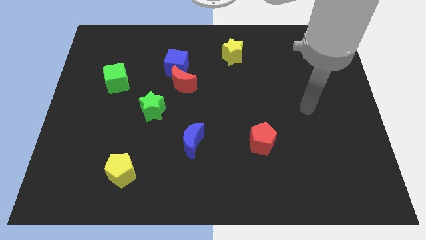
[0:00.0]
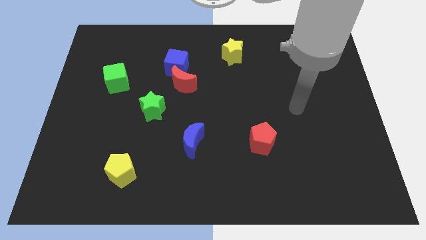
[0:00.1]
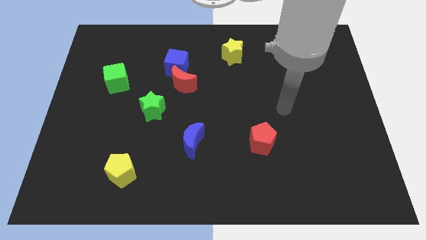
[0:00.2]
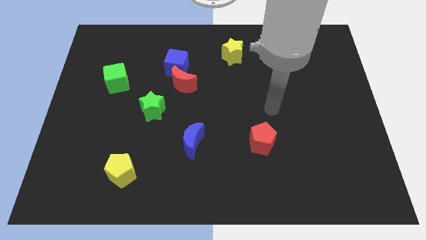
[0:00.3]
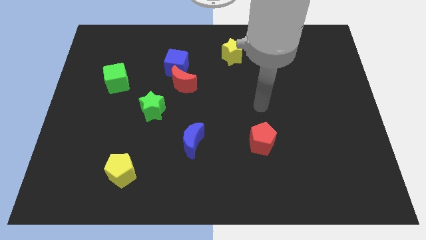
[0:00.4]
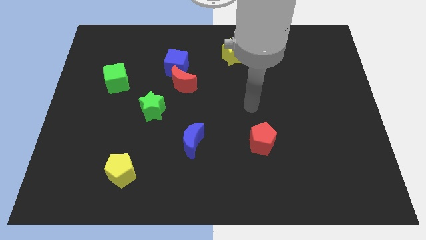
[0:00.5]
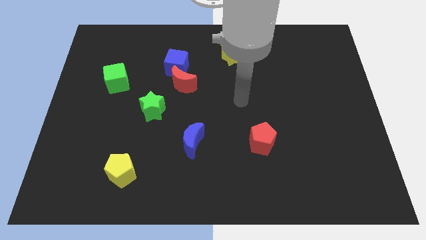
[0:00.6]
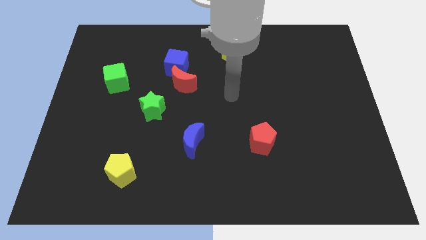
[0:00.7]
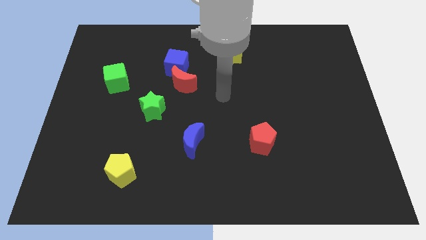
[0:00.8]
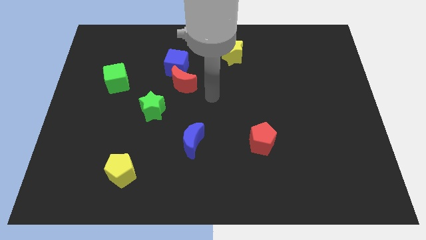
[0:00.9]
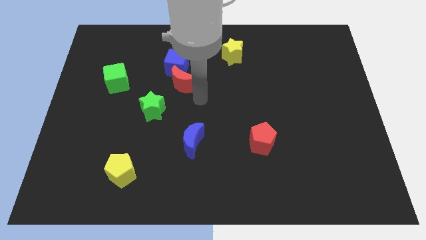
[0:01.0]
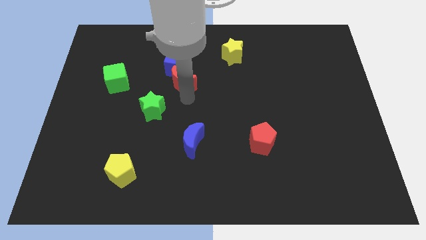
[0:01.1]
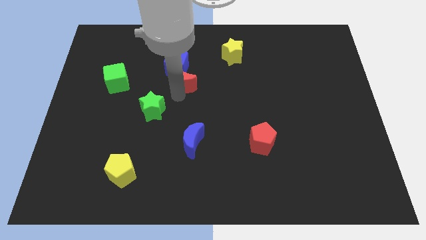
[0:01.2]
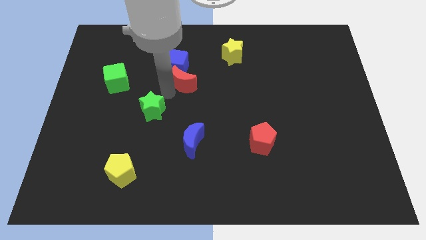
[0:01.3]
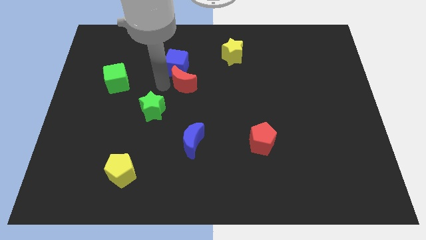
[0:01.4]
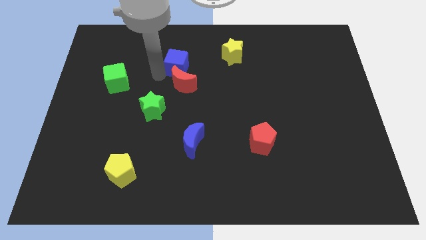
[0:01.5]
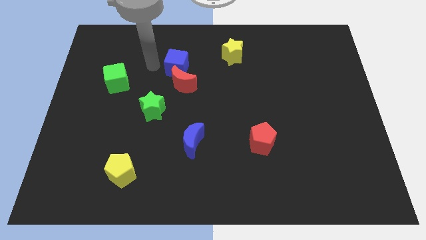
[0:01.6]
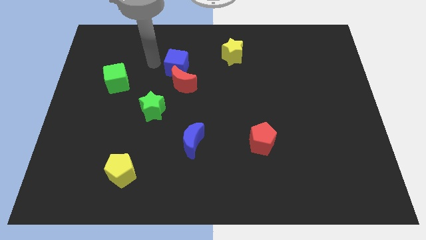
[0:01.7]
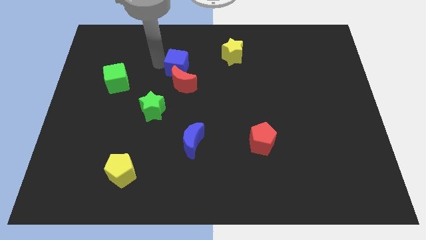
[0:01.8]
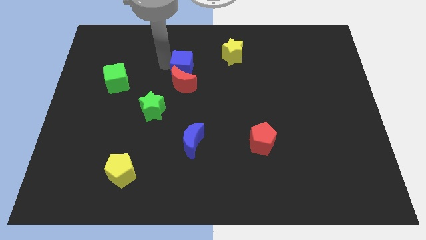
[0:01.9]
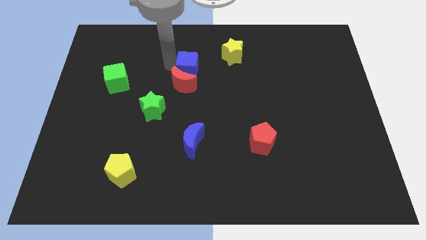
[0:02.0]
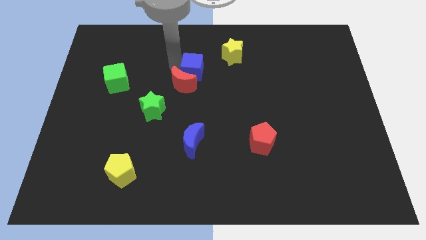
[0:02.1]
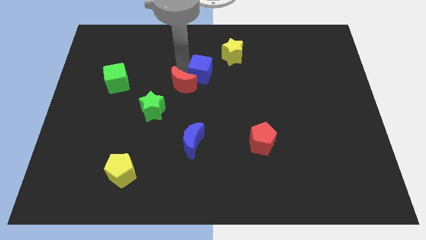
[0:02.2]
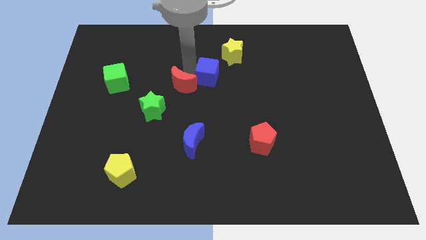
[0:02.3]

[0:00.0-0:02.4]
slightly push the blue cube right

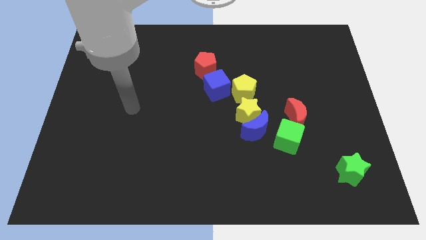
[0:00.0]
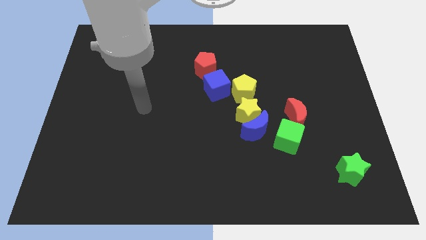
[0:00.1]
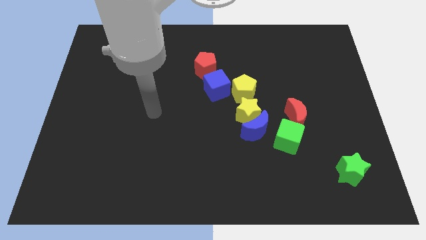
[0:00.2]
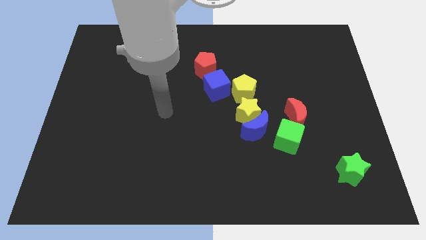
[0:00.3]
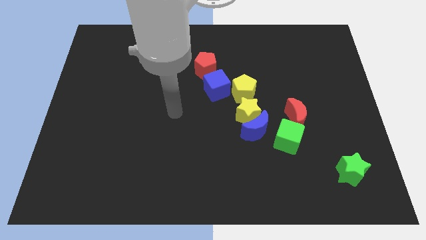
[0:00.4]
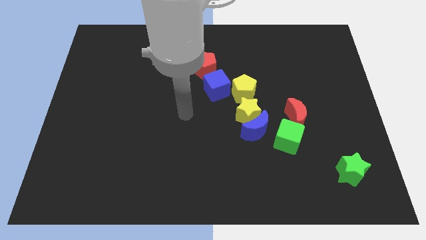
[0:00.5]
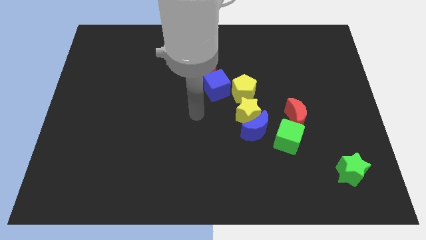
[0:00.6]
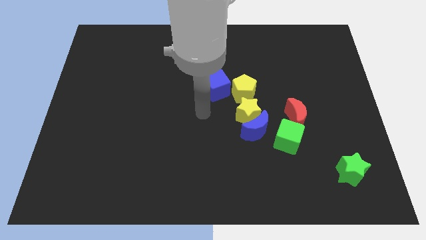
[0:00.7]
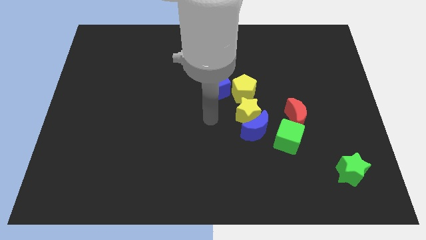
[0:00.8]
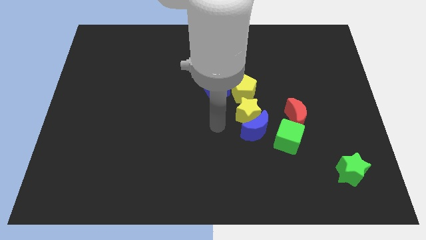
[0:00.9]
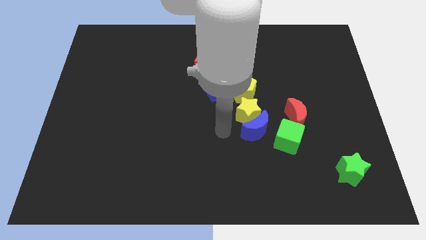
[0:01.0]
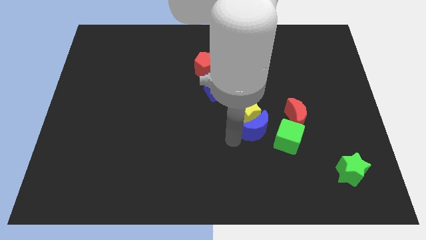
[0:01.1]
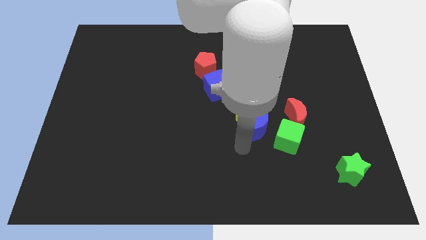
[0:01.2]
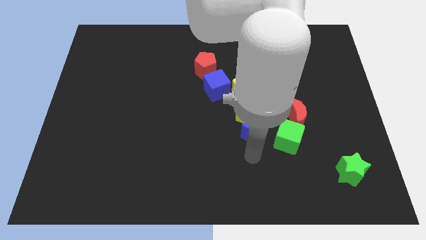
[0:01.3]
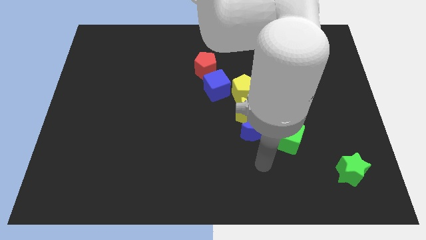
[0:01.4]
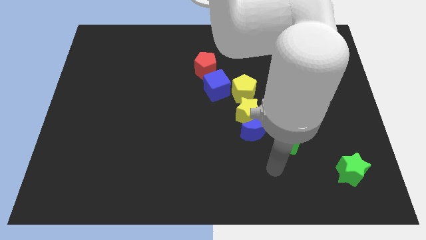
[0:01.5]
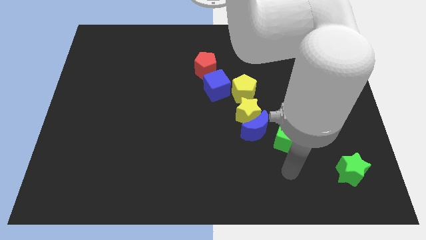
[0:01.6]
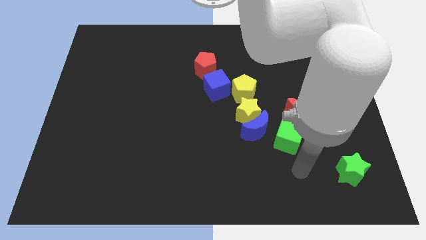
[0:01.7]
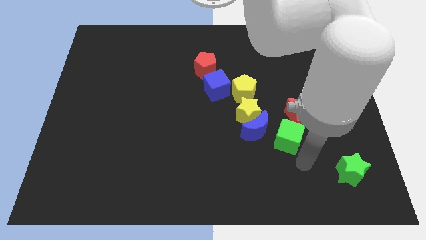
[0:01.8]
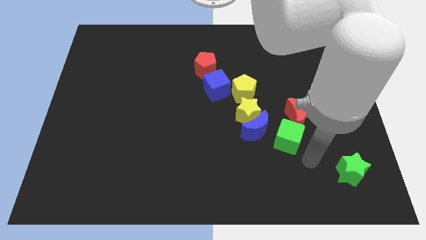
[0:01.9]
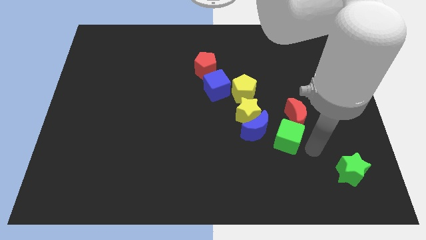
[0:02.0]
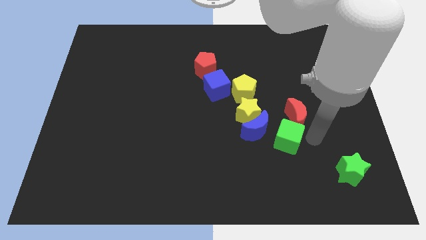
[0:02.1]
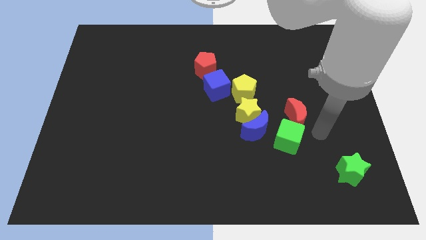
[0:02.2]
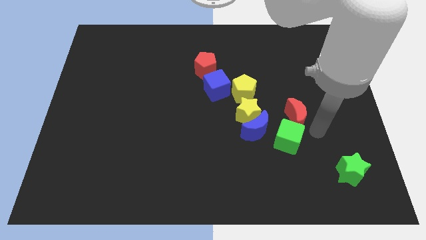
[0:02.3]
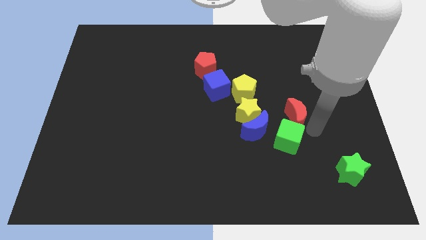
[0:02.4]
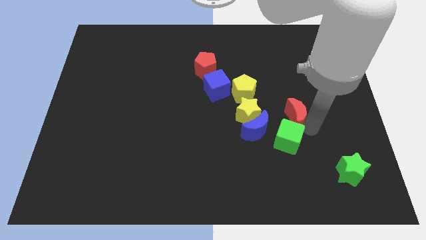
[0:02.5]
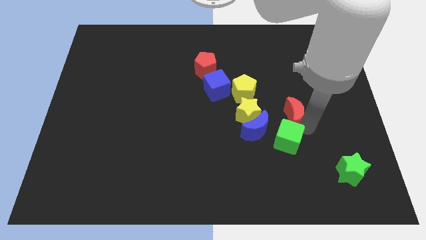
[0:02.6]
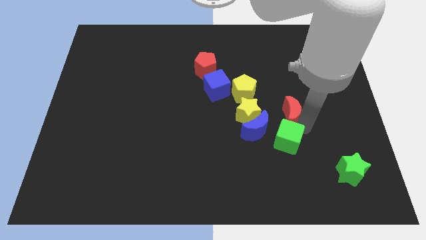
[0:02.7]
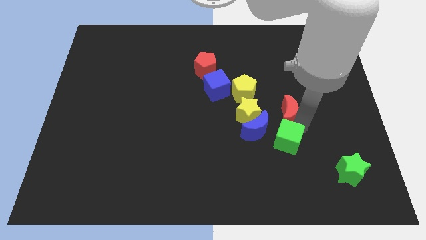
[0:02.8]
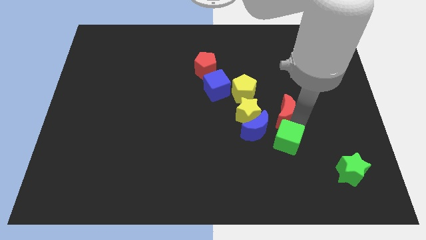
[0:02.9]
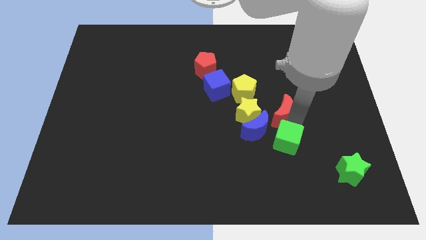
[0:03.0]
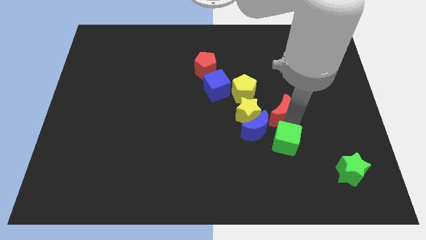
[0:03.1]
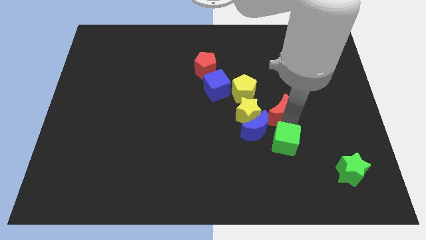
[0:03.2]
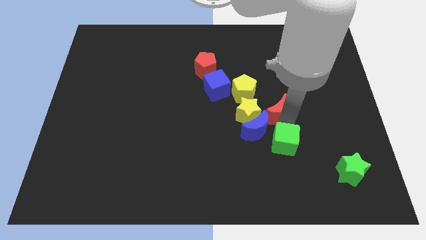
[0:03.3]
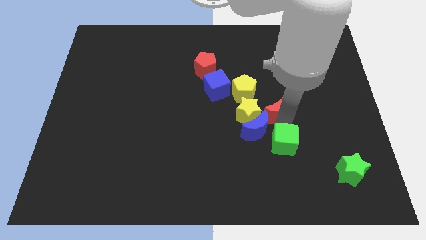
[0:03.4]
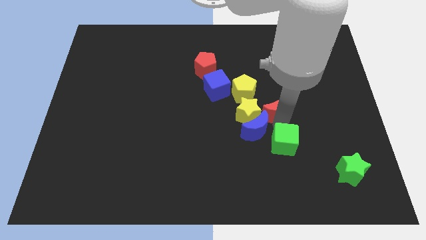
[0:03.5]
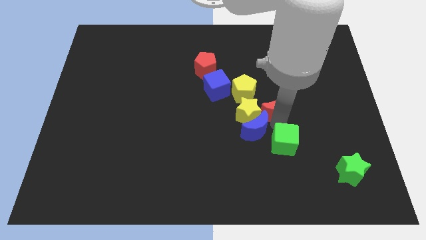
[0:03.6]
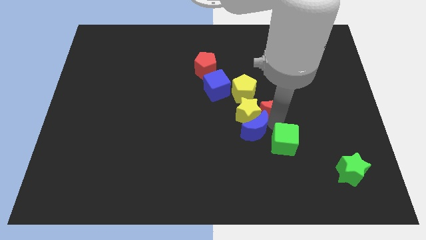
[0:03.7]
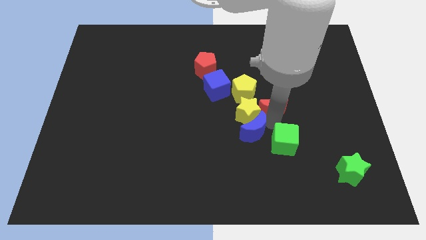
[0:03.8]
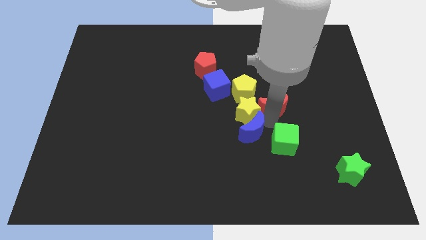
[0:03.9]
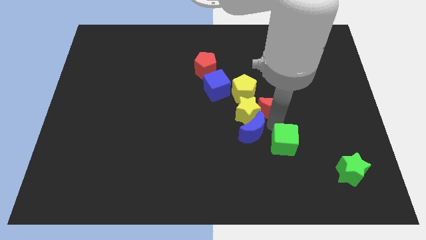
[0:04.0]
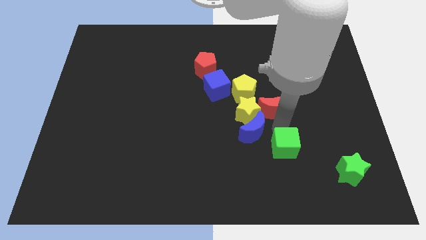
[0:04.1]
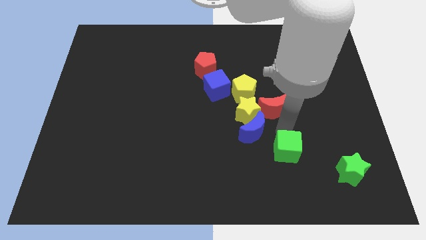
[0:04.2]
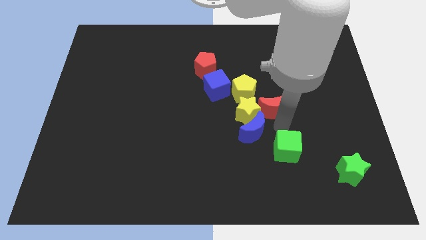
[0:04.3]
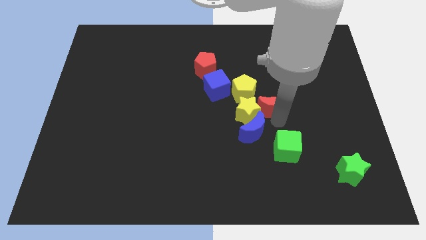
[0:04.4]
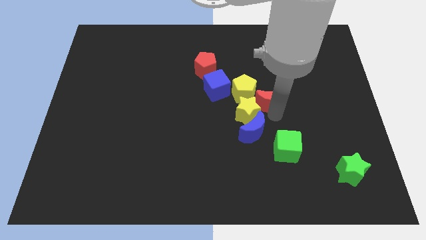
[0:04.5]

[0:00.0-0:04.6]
push the red moon diagonally upwards and left a bit

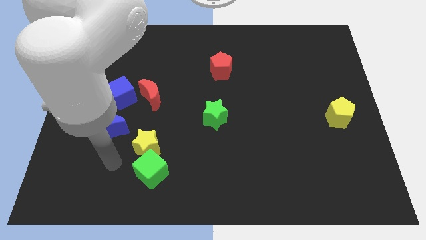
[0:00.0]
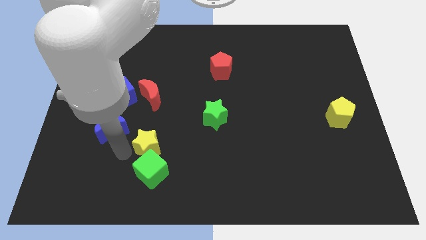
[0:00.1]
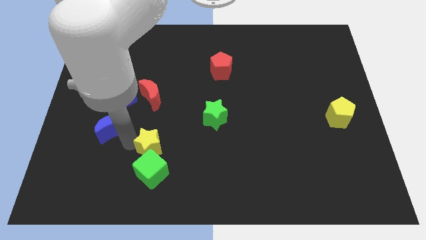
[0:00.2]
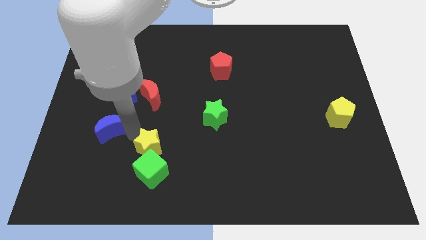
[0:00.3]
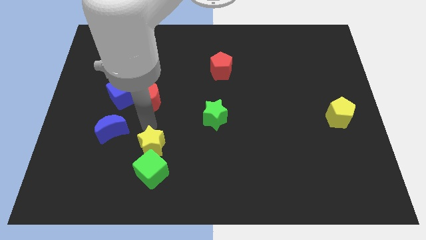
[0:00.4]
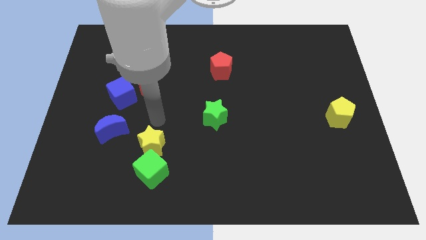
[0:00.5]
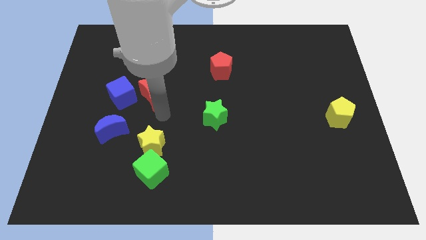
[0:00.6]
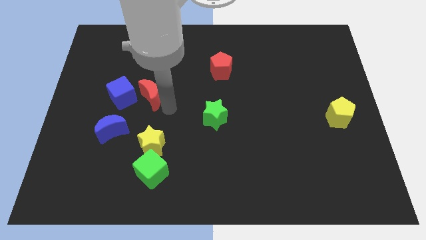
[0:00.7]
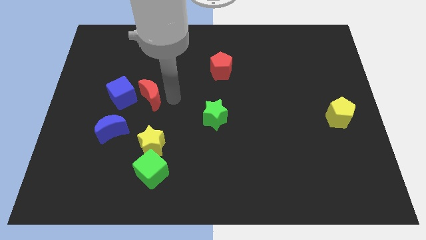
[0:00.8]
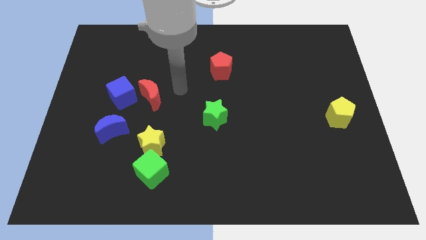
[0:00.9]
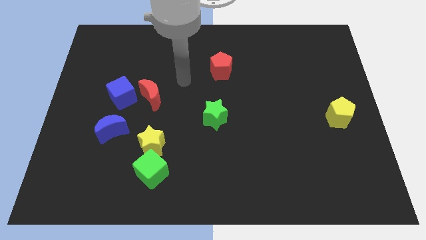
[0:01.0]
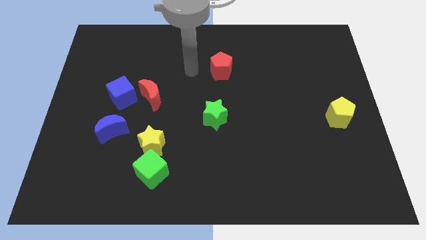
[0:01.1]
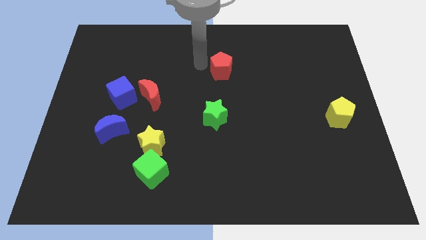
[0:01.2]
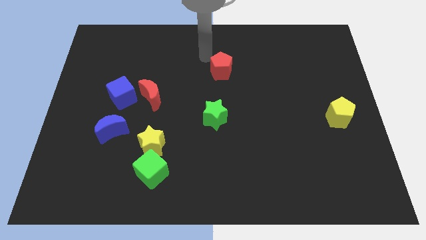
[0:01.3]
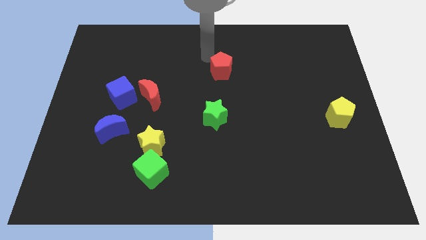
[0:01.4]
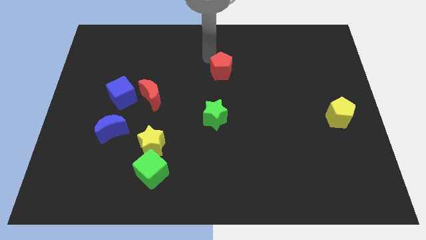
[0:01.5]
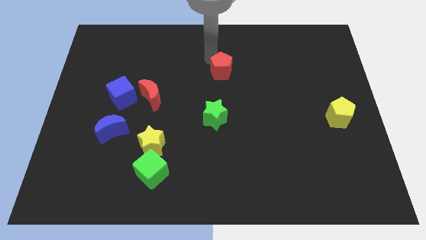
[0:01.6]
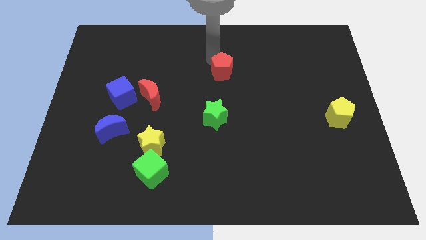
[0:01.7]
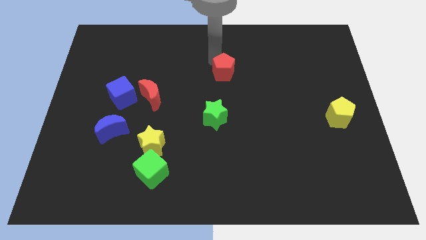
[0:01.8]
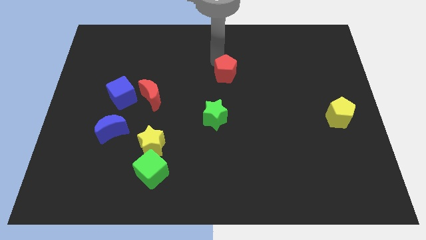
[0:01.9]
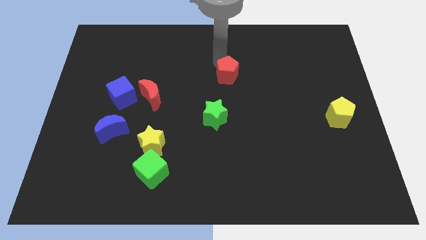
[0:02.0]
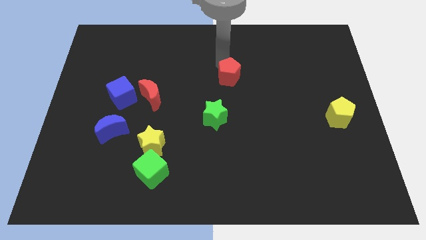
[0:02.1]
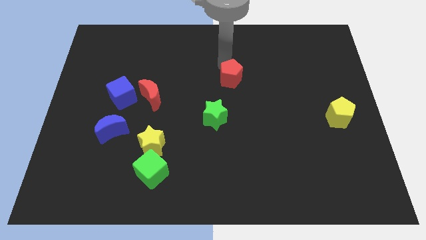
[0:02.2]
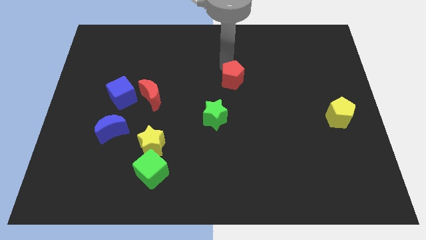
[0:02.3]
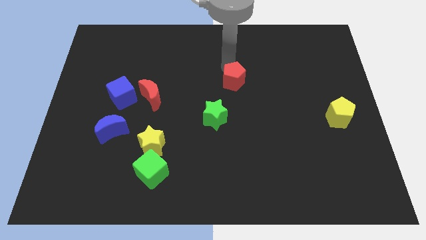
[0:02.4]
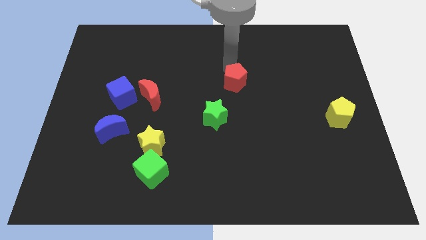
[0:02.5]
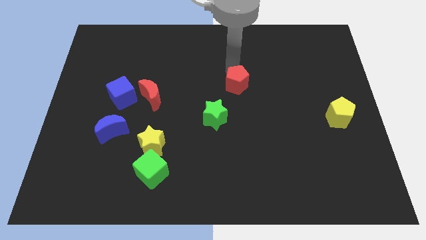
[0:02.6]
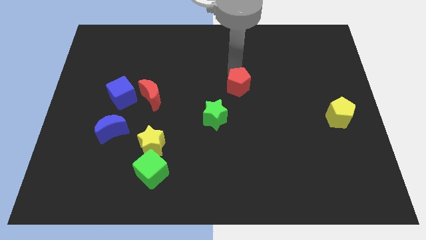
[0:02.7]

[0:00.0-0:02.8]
slide the red pentagon diagonally down and right a little
